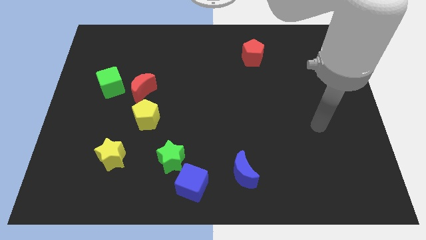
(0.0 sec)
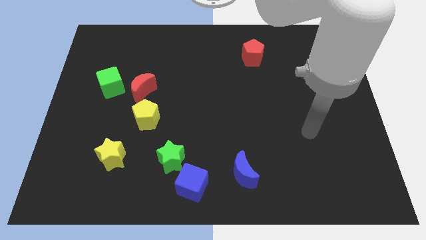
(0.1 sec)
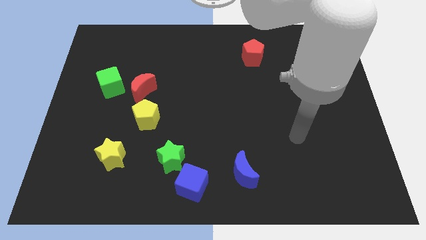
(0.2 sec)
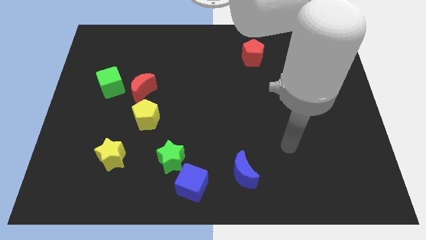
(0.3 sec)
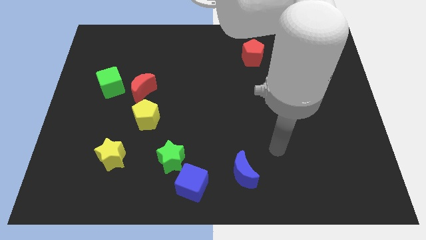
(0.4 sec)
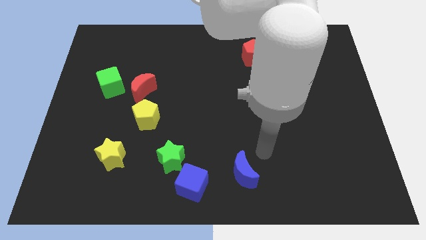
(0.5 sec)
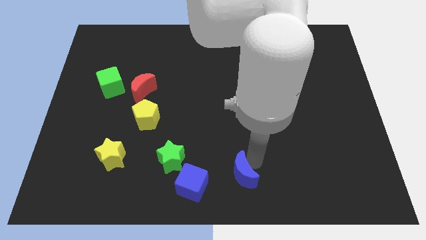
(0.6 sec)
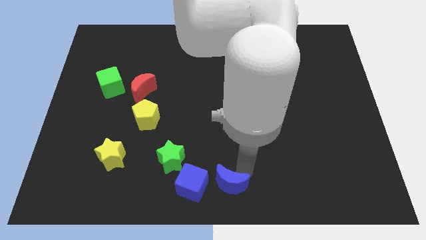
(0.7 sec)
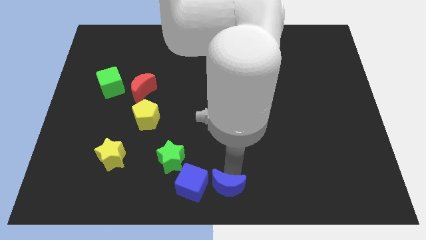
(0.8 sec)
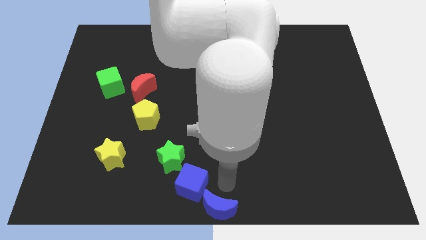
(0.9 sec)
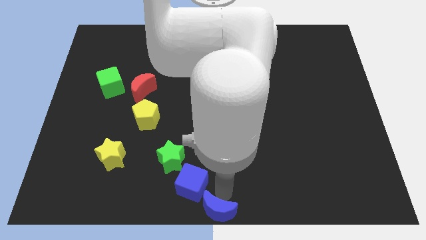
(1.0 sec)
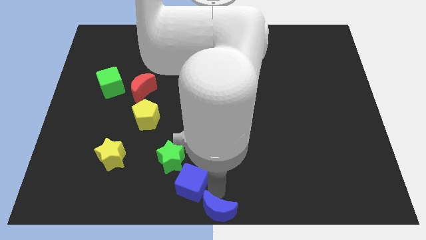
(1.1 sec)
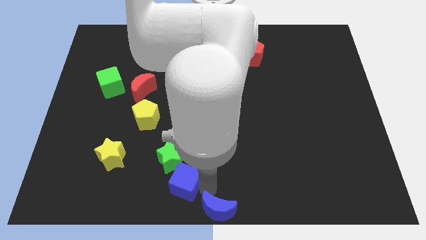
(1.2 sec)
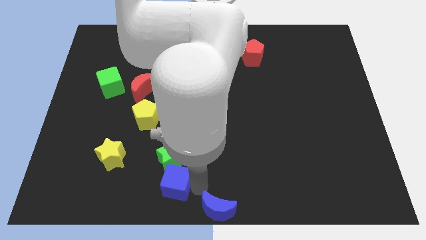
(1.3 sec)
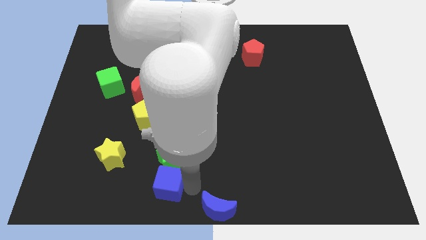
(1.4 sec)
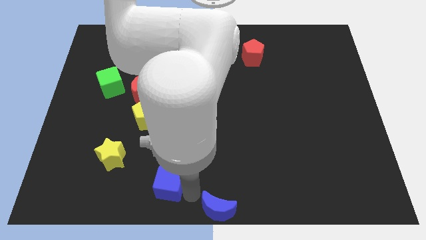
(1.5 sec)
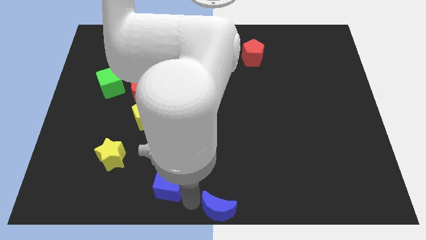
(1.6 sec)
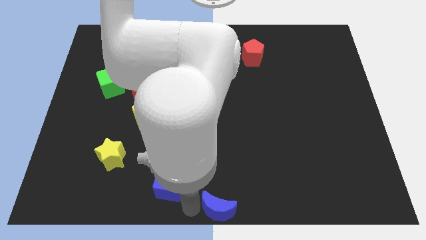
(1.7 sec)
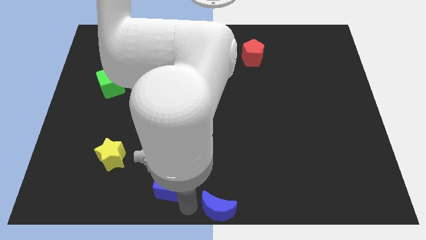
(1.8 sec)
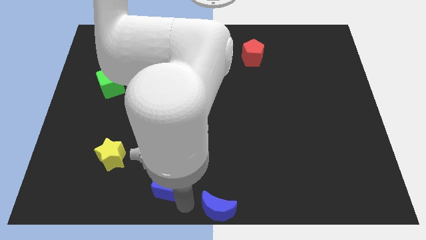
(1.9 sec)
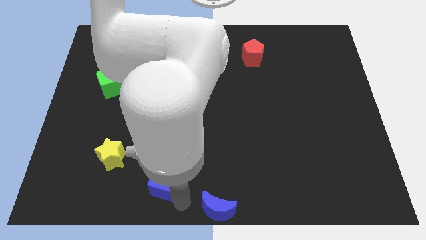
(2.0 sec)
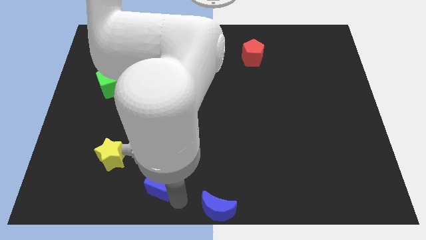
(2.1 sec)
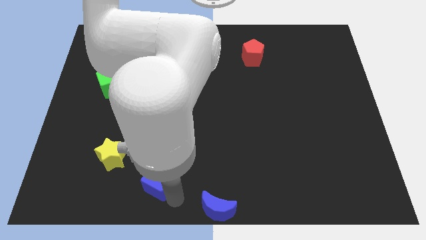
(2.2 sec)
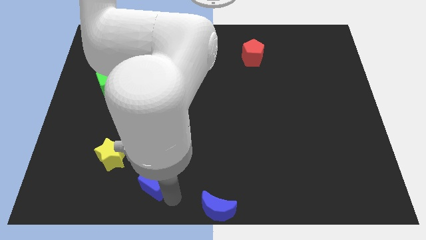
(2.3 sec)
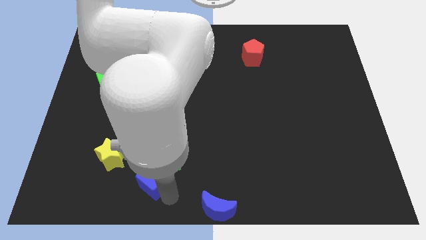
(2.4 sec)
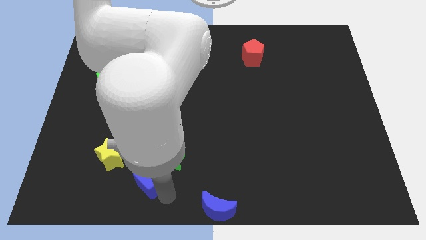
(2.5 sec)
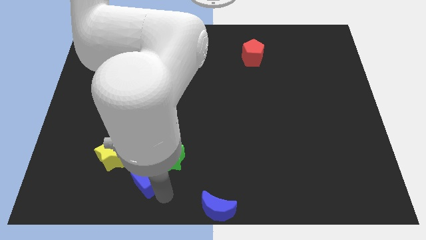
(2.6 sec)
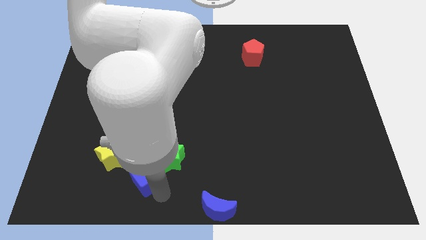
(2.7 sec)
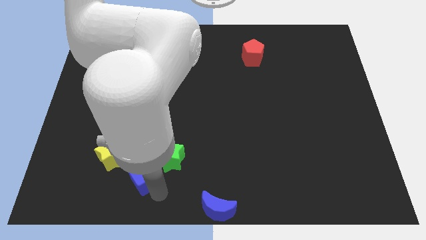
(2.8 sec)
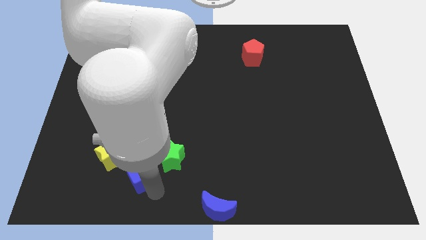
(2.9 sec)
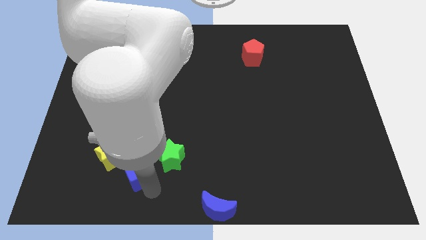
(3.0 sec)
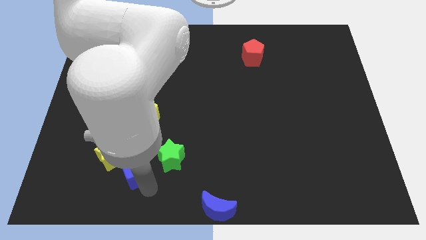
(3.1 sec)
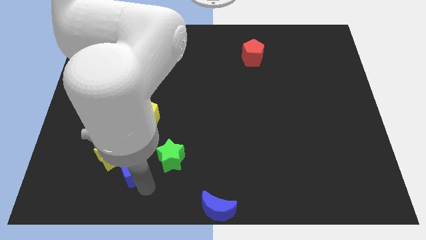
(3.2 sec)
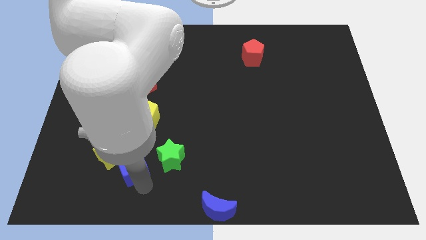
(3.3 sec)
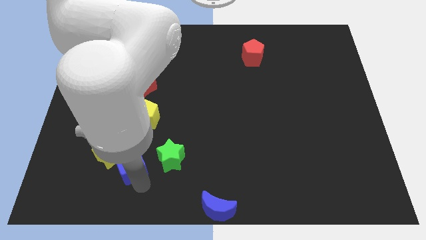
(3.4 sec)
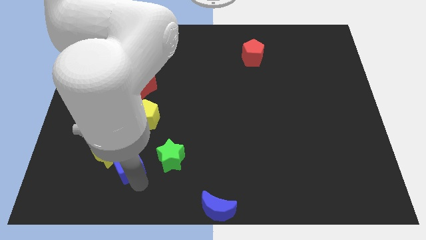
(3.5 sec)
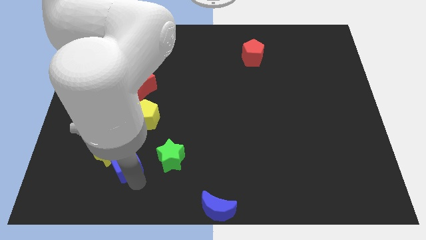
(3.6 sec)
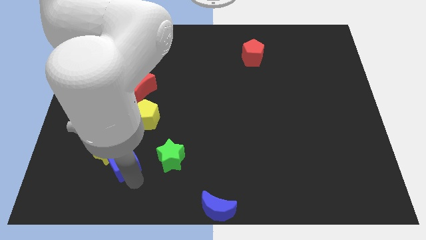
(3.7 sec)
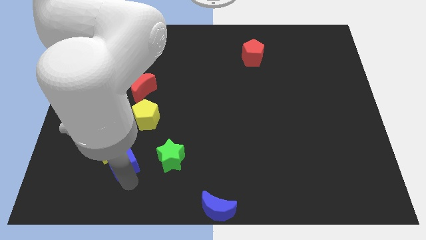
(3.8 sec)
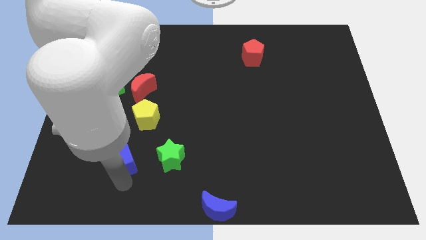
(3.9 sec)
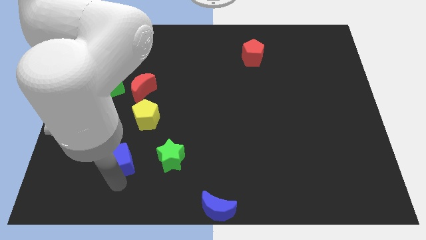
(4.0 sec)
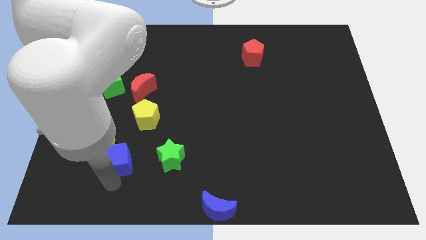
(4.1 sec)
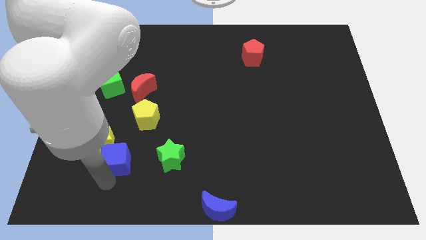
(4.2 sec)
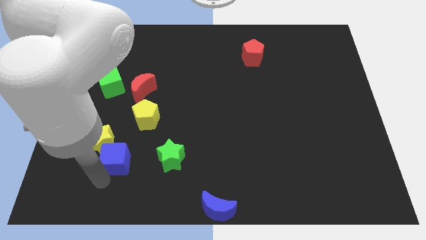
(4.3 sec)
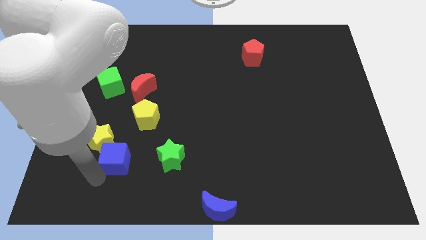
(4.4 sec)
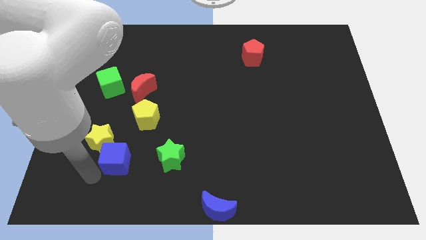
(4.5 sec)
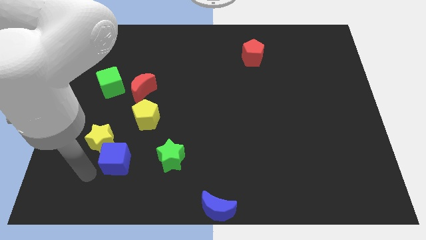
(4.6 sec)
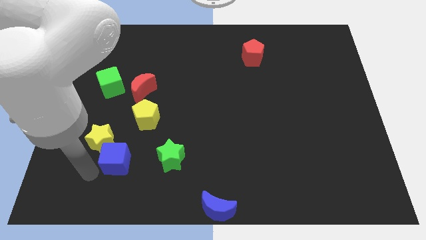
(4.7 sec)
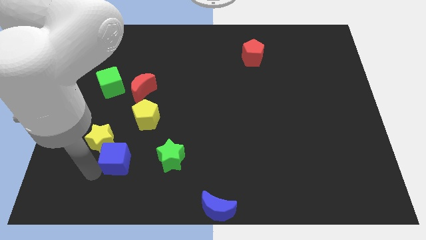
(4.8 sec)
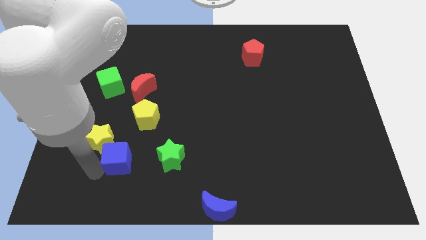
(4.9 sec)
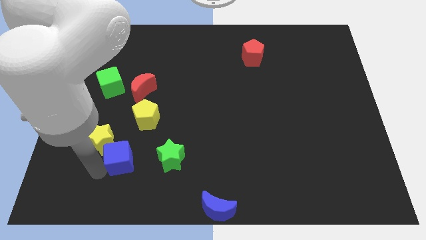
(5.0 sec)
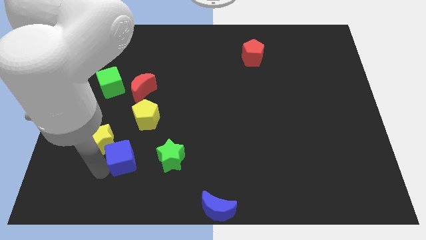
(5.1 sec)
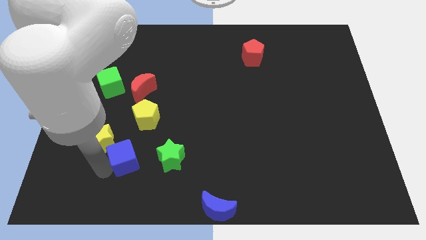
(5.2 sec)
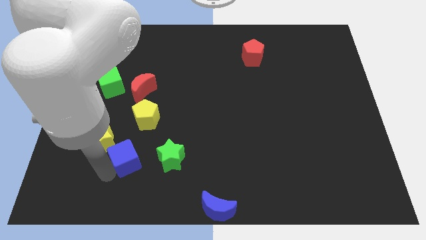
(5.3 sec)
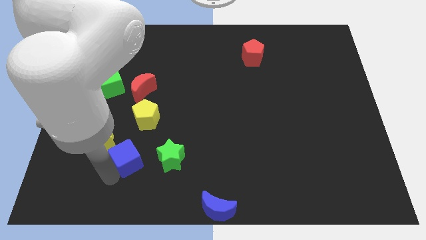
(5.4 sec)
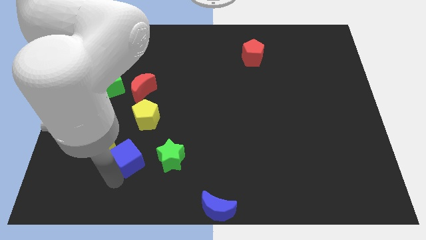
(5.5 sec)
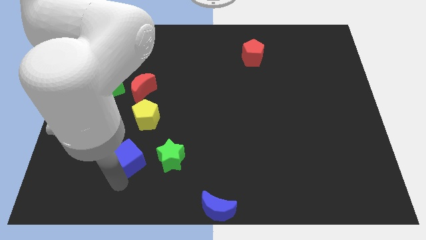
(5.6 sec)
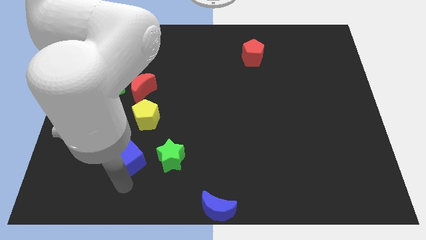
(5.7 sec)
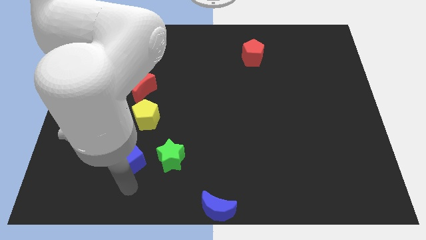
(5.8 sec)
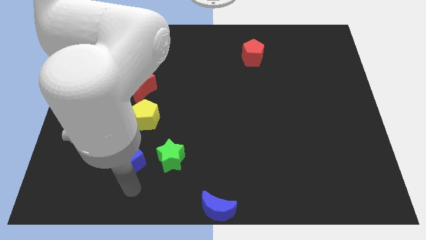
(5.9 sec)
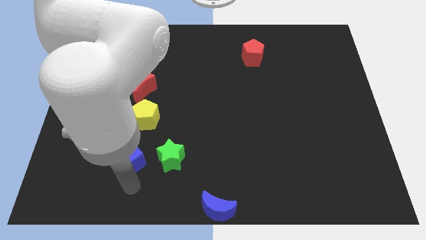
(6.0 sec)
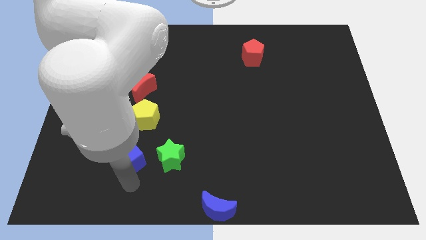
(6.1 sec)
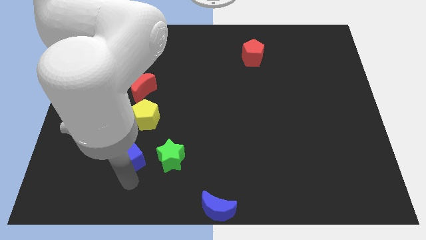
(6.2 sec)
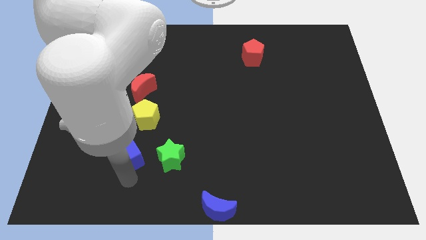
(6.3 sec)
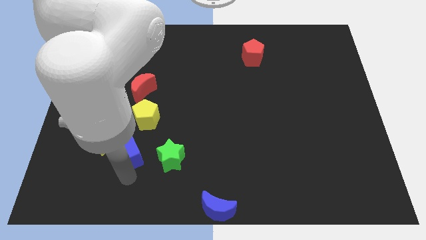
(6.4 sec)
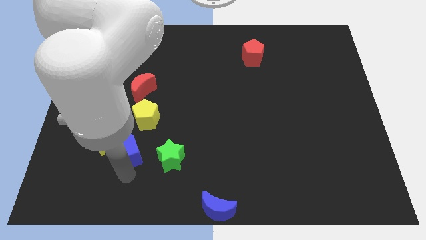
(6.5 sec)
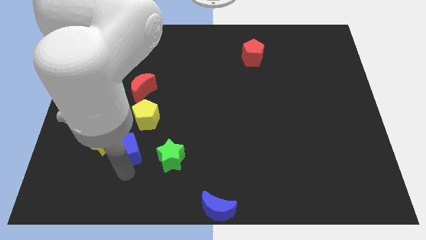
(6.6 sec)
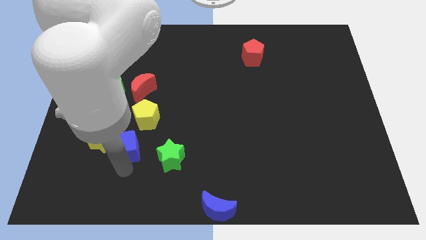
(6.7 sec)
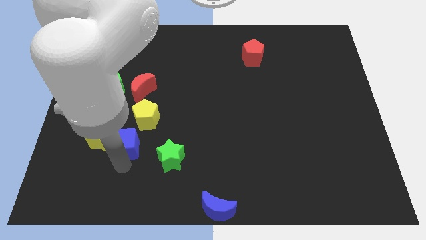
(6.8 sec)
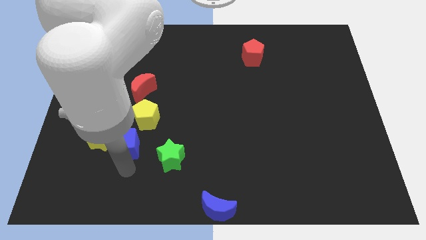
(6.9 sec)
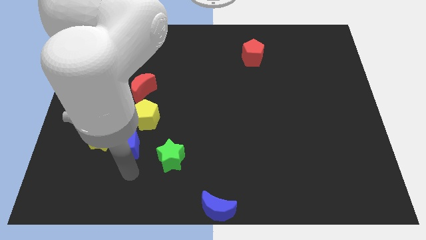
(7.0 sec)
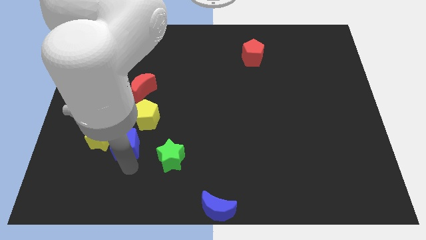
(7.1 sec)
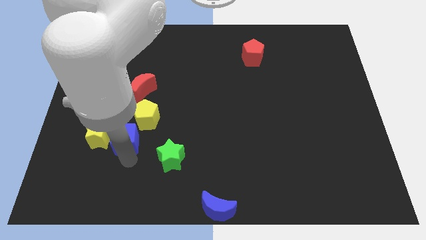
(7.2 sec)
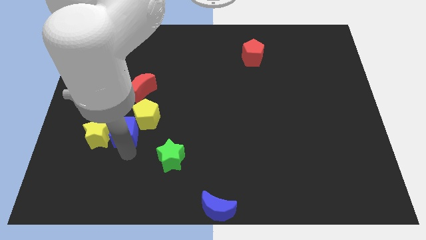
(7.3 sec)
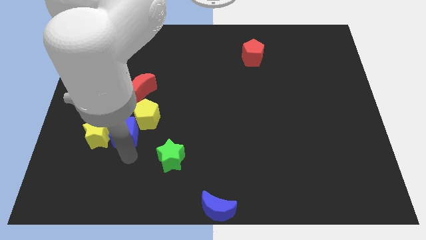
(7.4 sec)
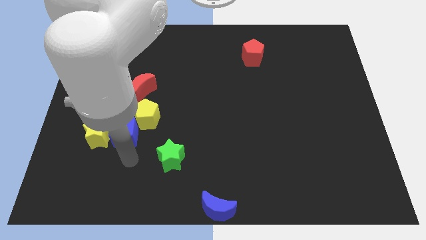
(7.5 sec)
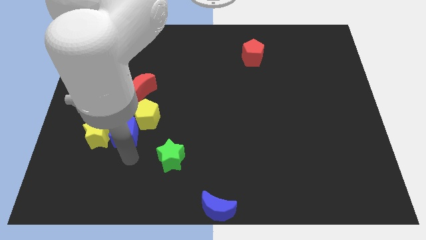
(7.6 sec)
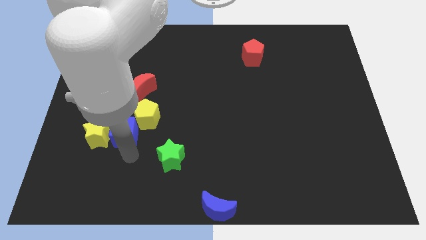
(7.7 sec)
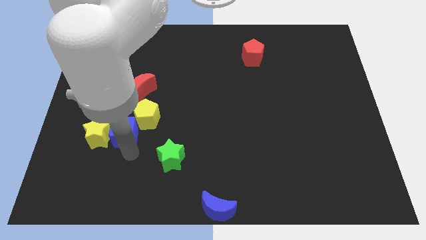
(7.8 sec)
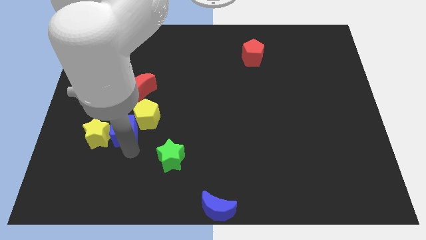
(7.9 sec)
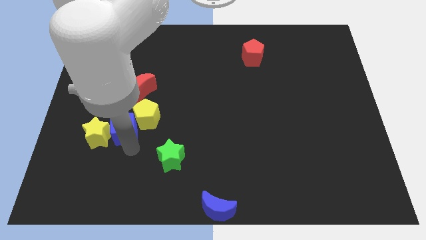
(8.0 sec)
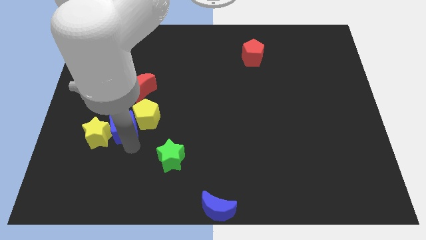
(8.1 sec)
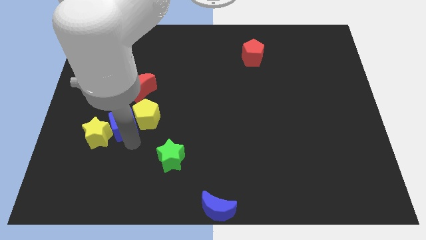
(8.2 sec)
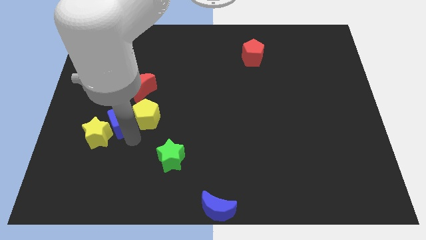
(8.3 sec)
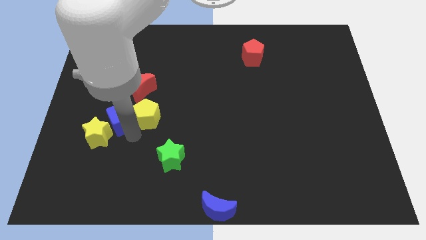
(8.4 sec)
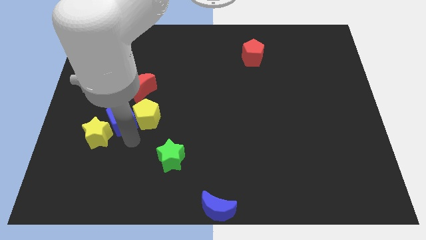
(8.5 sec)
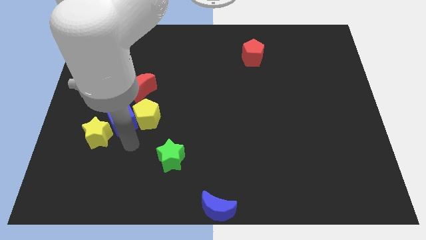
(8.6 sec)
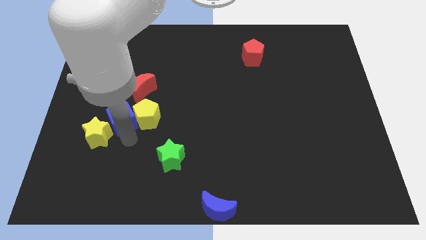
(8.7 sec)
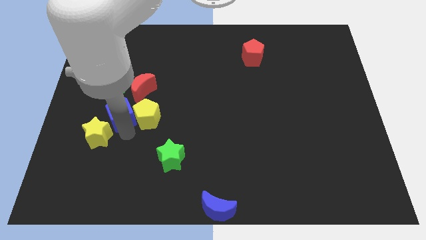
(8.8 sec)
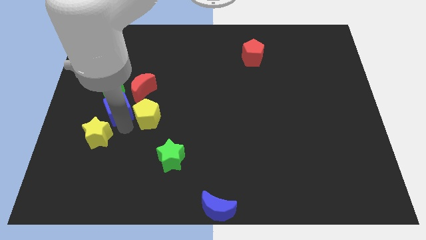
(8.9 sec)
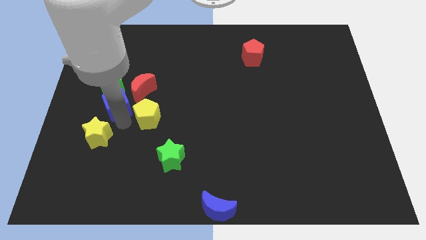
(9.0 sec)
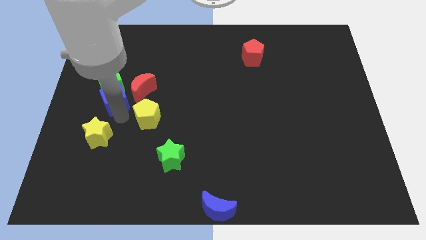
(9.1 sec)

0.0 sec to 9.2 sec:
push the blue cube close to the green cube
